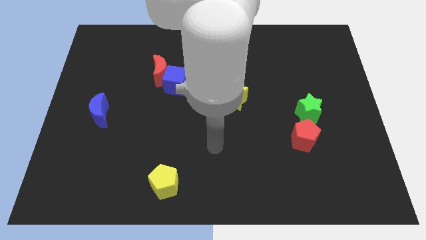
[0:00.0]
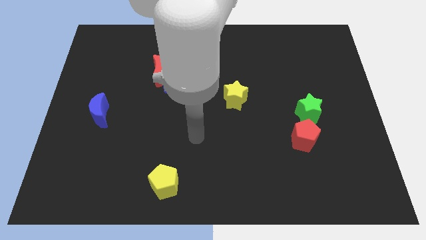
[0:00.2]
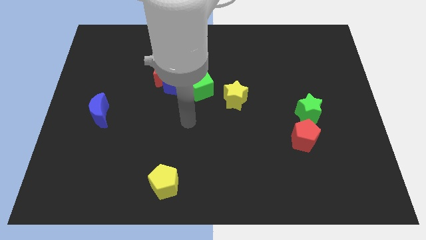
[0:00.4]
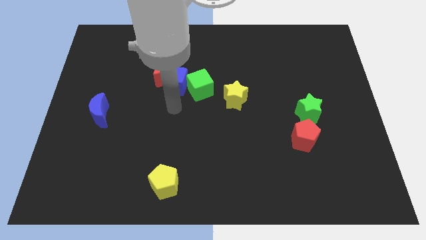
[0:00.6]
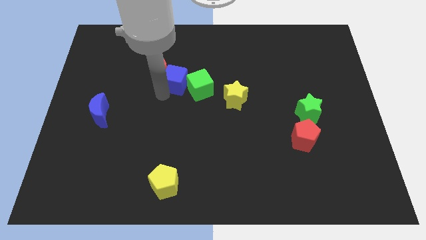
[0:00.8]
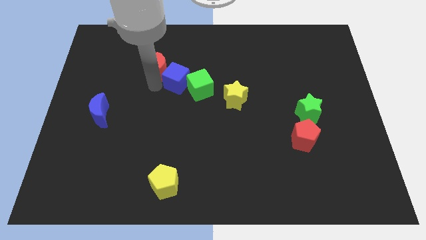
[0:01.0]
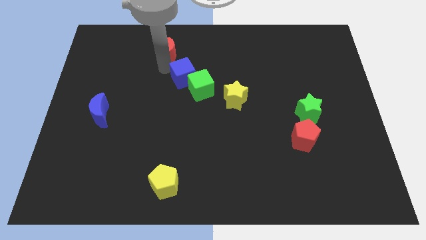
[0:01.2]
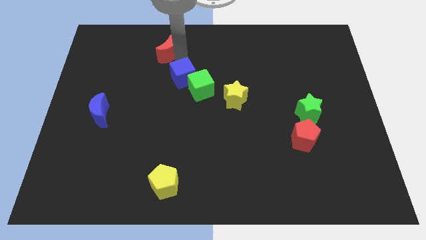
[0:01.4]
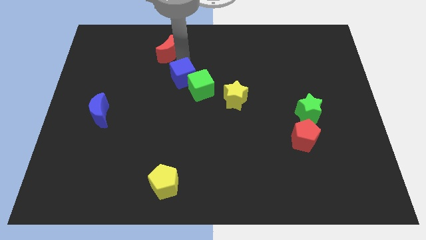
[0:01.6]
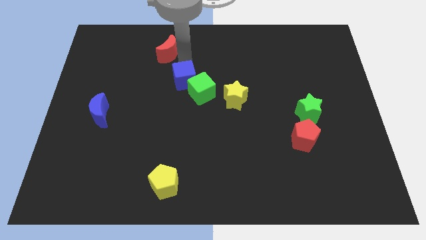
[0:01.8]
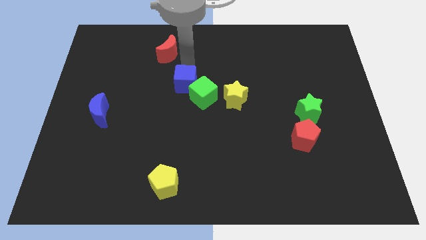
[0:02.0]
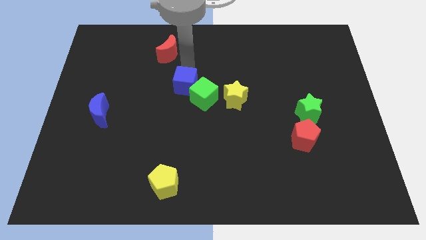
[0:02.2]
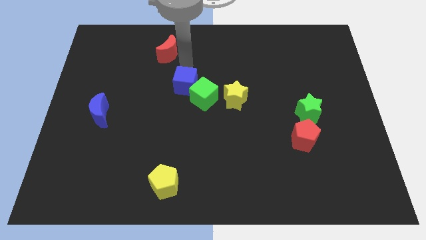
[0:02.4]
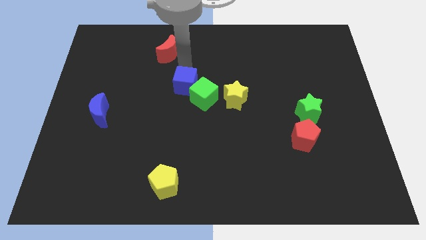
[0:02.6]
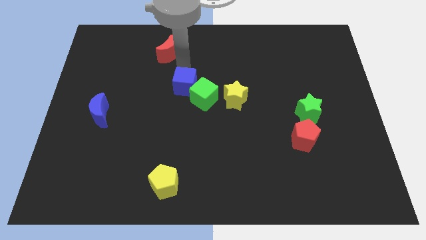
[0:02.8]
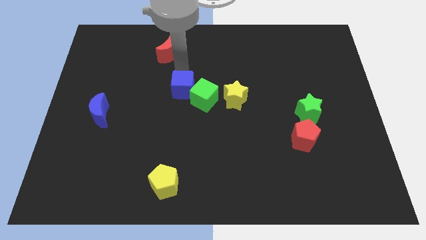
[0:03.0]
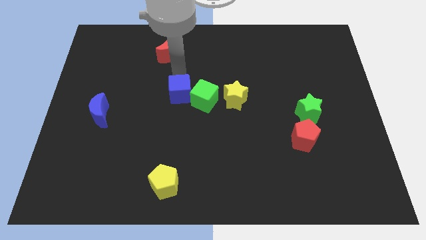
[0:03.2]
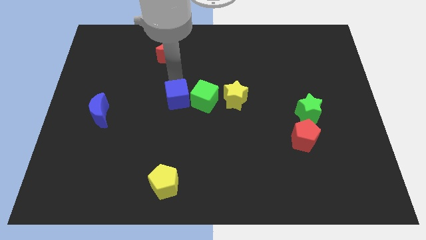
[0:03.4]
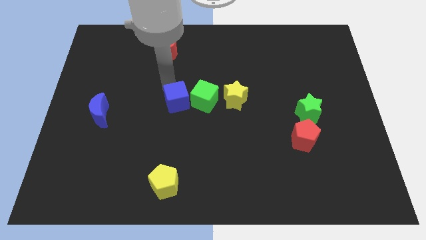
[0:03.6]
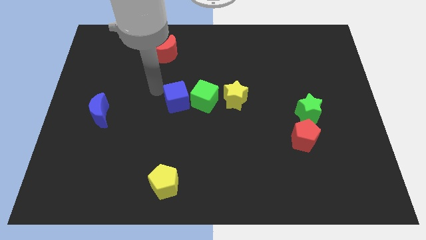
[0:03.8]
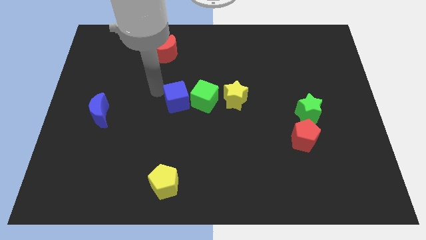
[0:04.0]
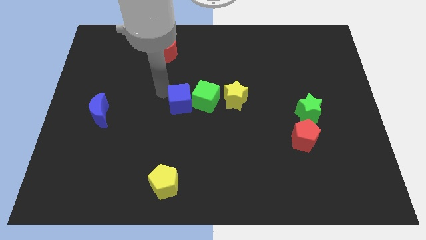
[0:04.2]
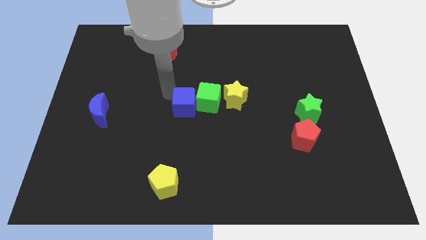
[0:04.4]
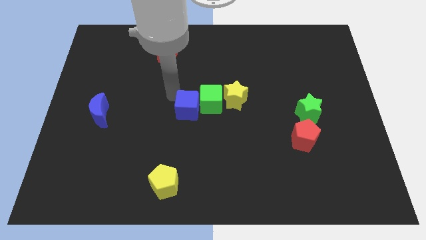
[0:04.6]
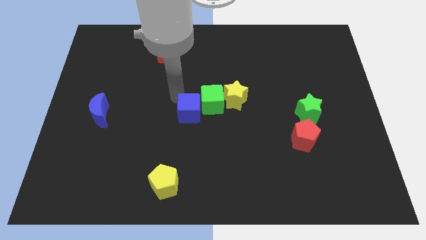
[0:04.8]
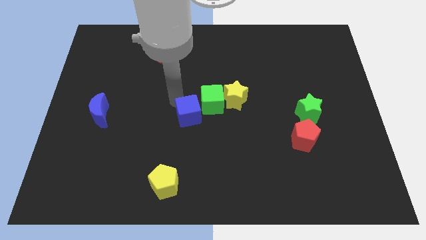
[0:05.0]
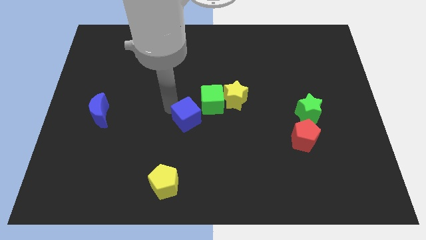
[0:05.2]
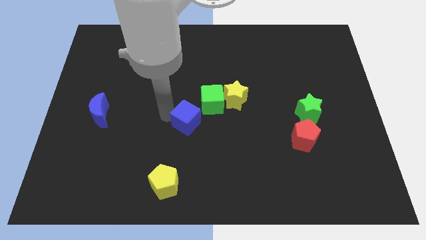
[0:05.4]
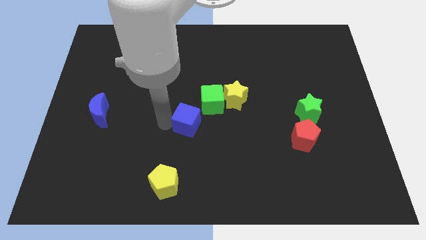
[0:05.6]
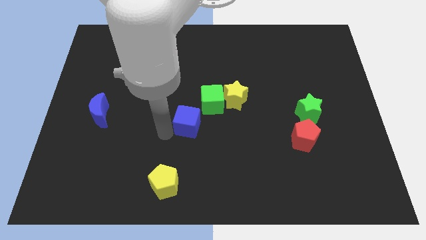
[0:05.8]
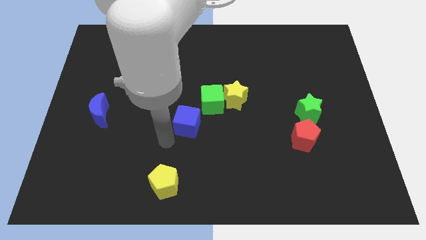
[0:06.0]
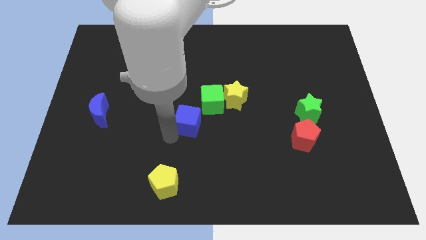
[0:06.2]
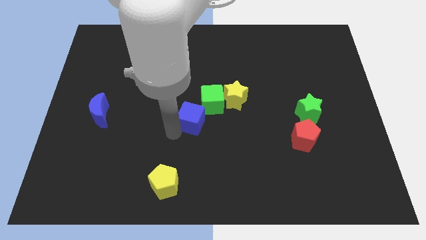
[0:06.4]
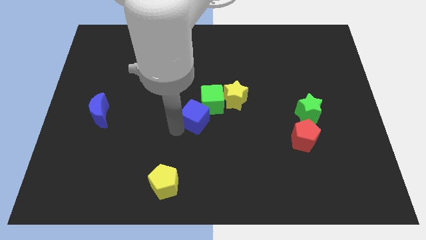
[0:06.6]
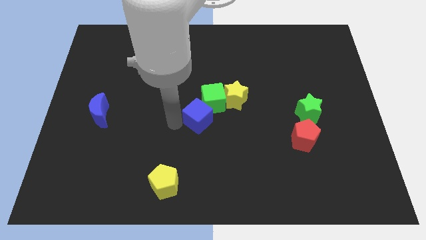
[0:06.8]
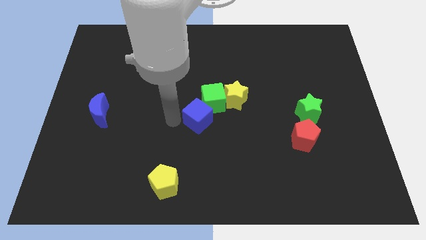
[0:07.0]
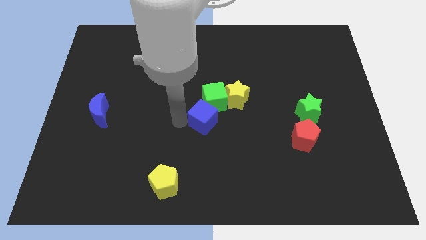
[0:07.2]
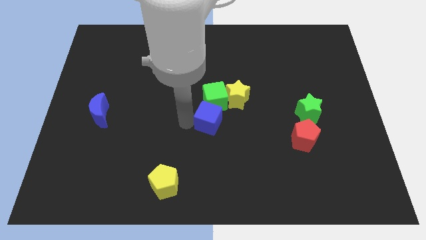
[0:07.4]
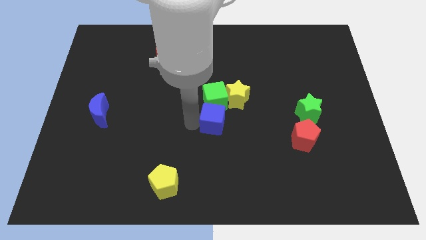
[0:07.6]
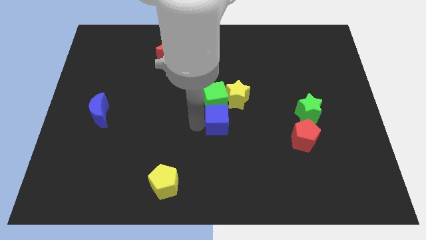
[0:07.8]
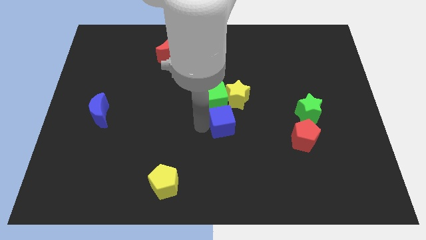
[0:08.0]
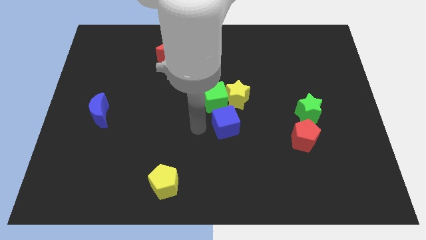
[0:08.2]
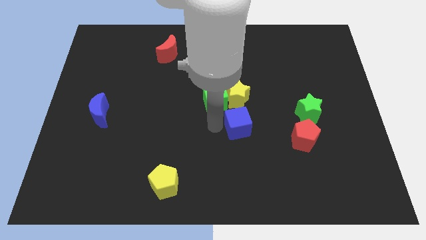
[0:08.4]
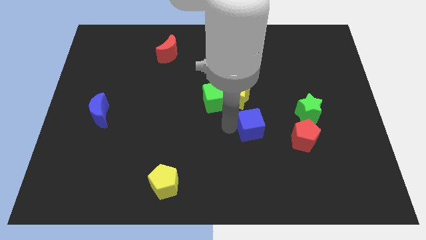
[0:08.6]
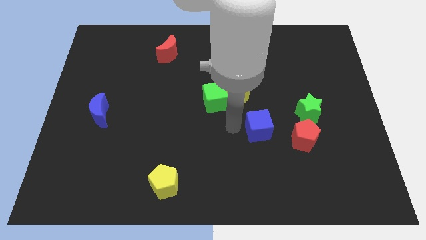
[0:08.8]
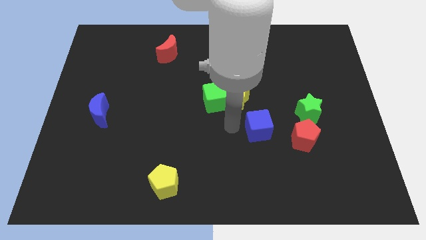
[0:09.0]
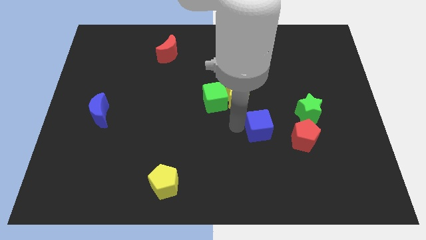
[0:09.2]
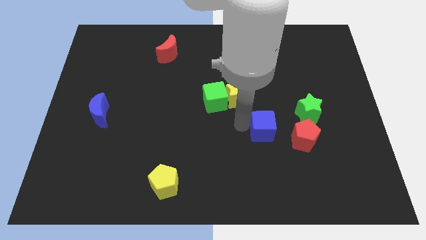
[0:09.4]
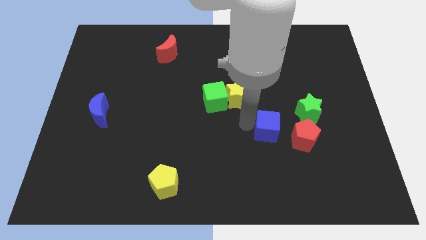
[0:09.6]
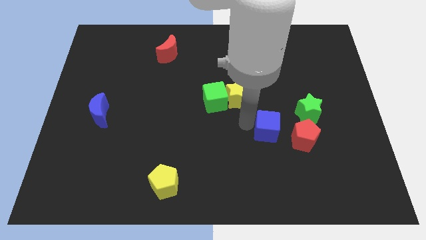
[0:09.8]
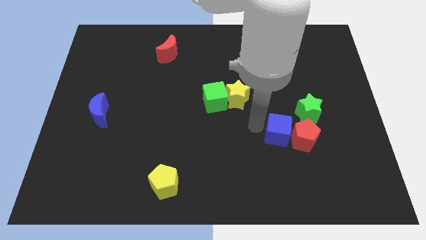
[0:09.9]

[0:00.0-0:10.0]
move the blue cube to the red pentagon

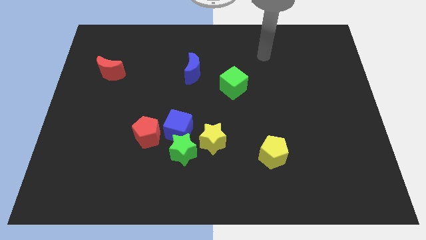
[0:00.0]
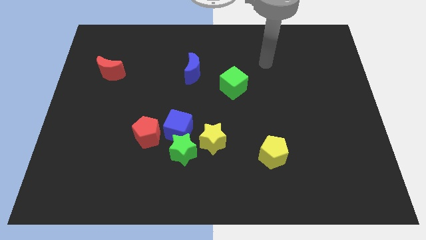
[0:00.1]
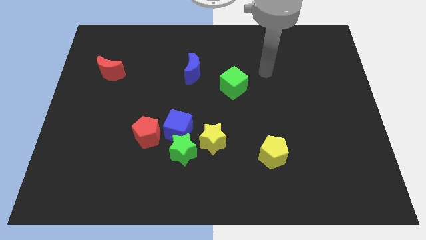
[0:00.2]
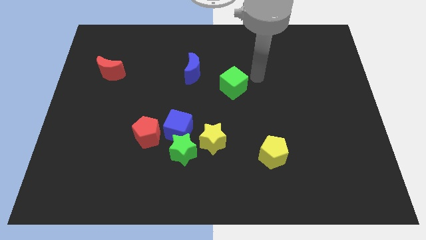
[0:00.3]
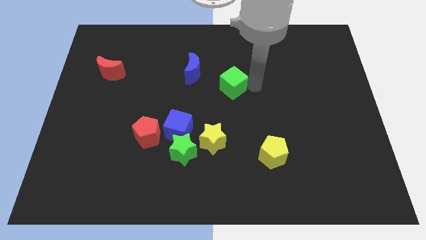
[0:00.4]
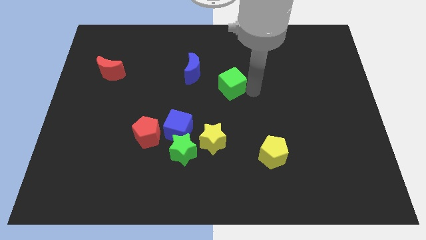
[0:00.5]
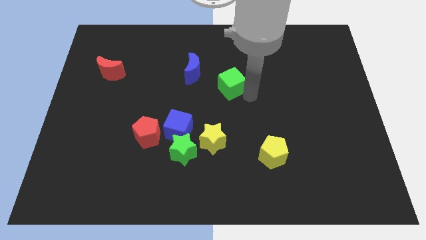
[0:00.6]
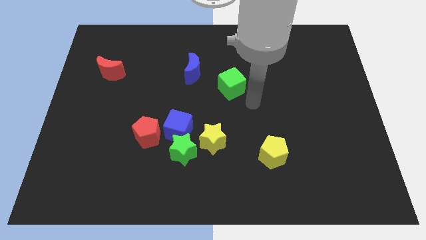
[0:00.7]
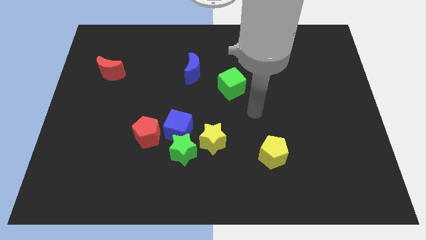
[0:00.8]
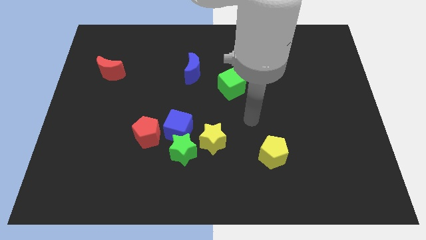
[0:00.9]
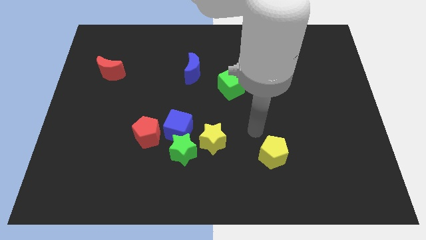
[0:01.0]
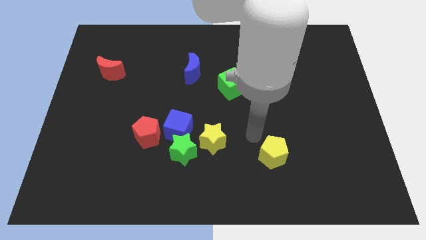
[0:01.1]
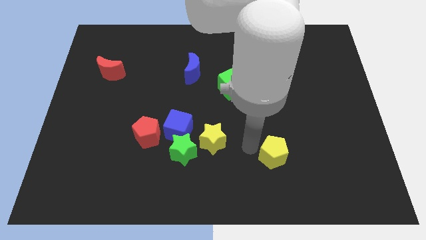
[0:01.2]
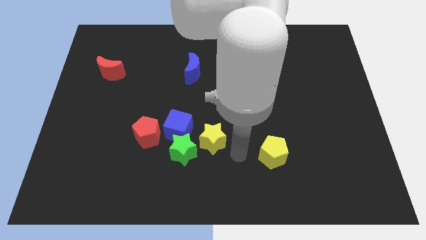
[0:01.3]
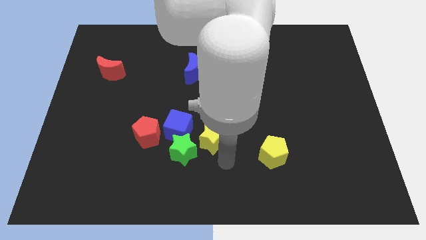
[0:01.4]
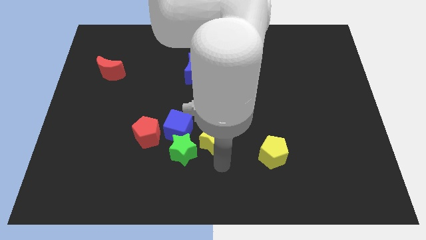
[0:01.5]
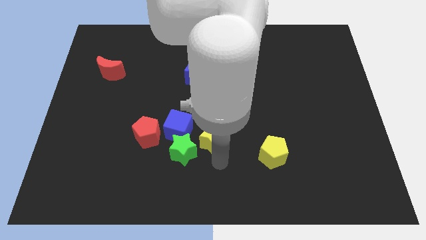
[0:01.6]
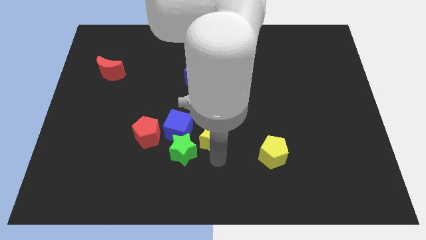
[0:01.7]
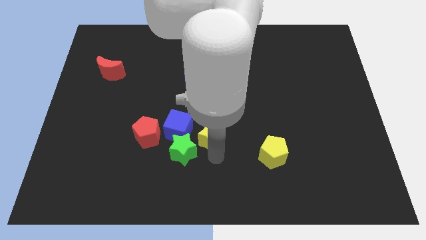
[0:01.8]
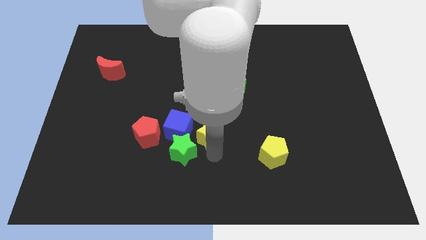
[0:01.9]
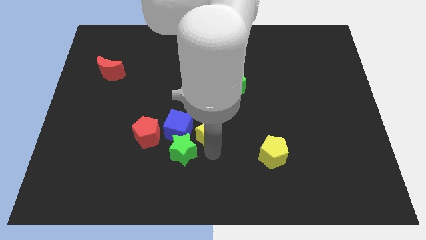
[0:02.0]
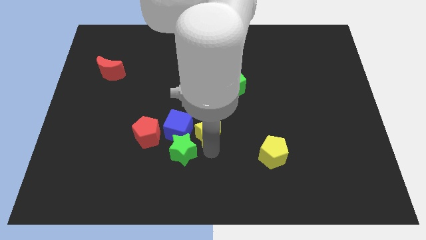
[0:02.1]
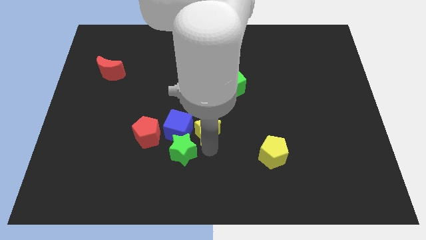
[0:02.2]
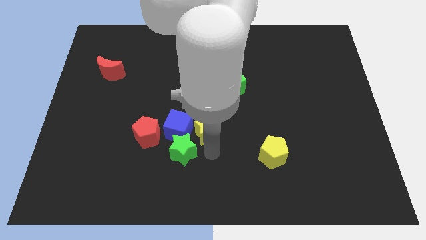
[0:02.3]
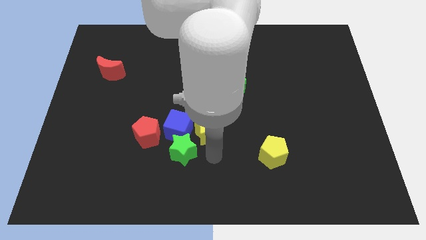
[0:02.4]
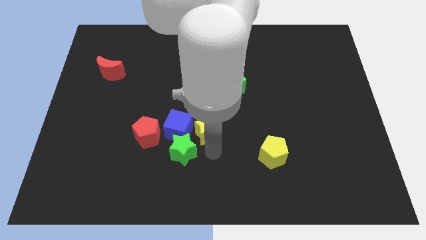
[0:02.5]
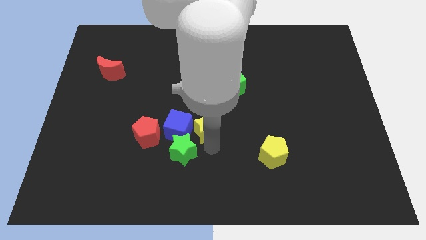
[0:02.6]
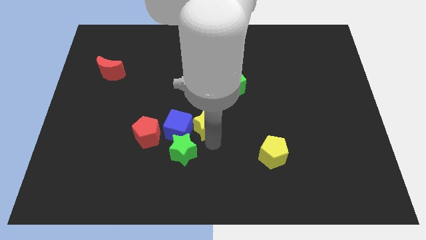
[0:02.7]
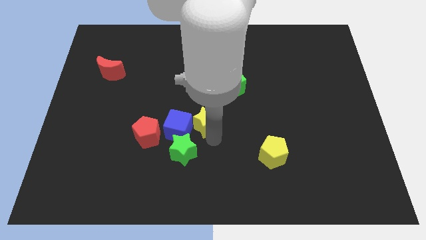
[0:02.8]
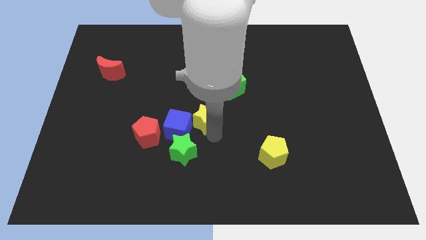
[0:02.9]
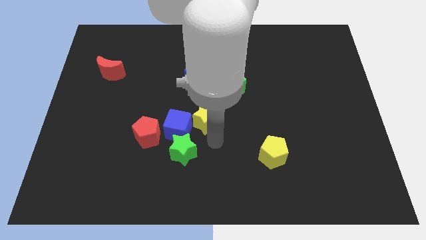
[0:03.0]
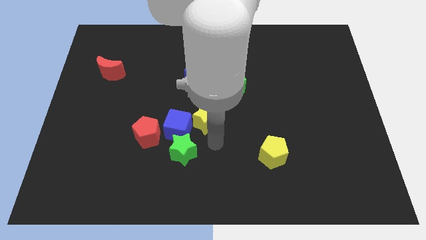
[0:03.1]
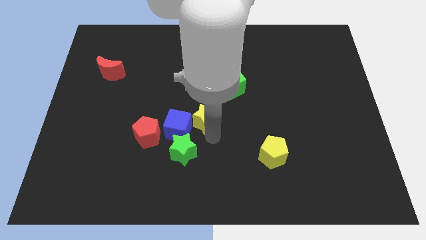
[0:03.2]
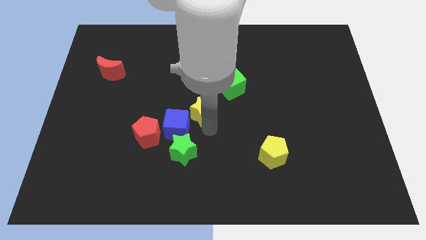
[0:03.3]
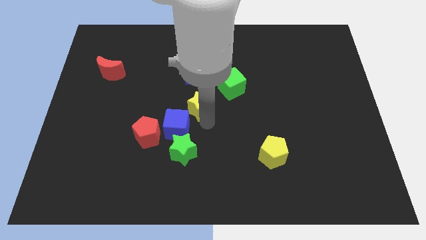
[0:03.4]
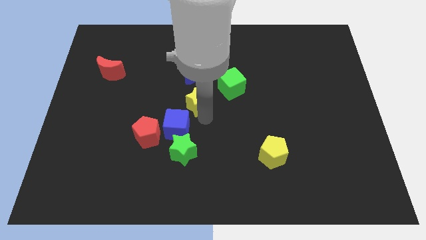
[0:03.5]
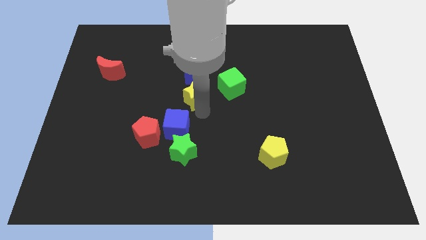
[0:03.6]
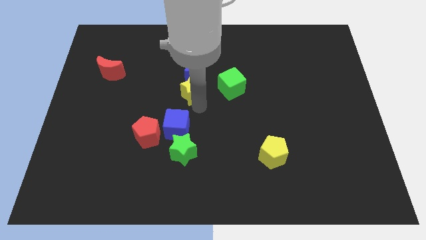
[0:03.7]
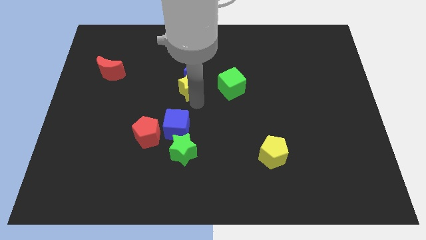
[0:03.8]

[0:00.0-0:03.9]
move the yellow star next to the blue moon
